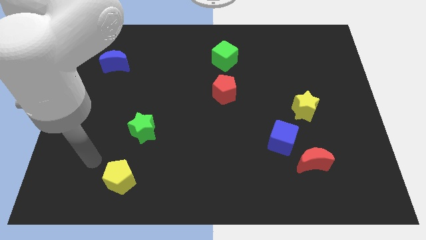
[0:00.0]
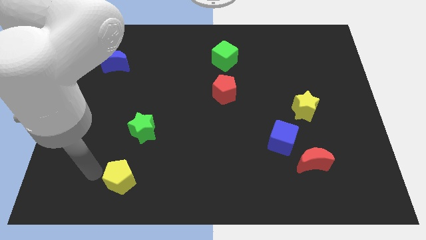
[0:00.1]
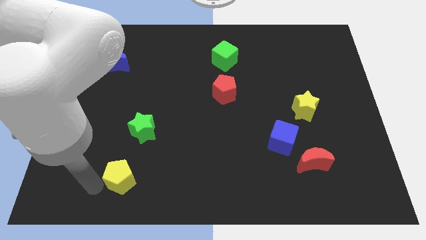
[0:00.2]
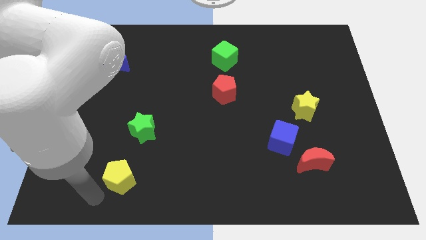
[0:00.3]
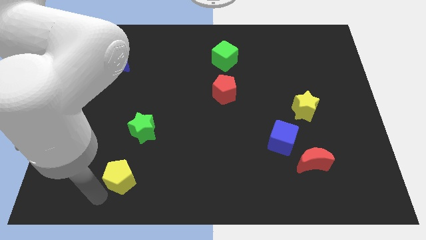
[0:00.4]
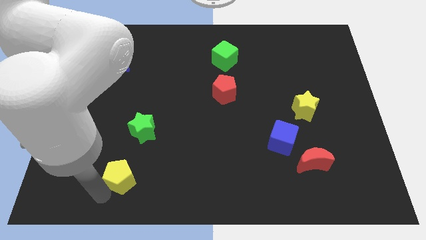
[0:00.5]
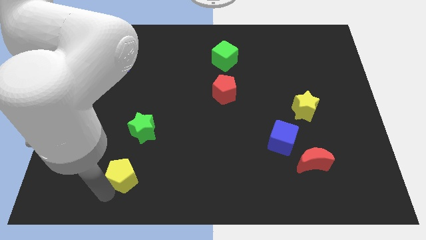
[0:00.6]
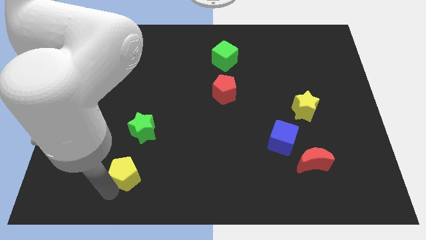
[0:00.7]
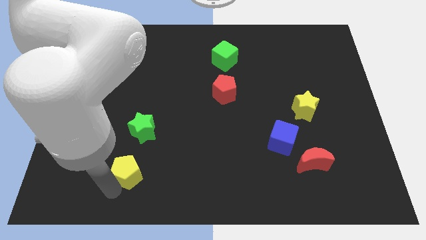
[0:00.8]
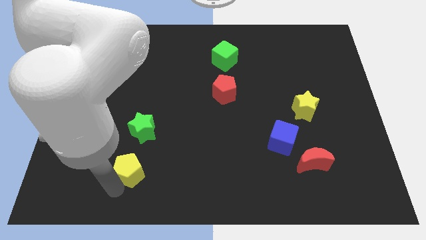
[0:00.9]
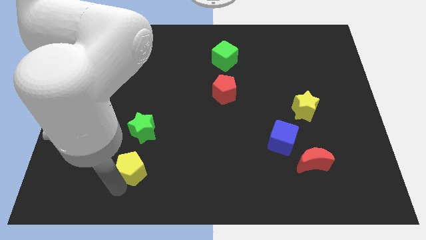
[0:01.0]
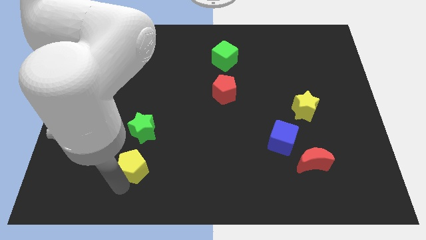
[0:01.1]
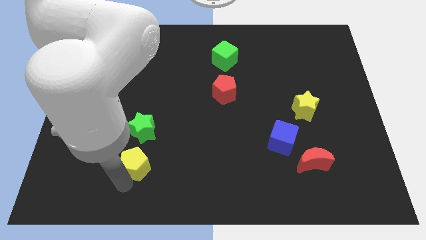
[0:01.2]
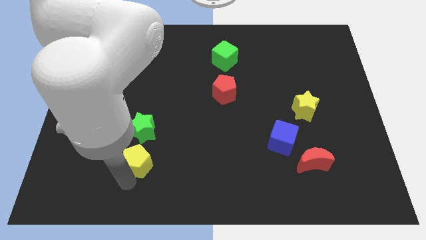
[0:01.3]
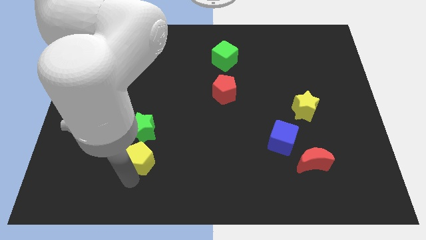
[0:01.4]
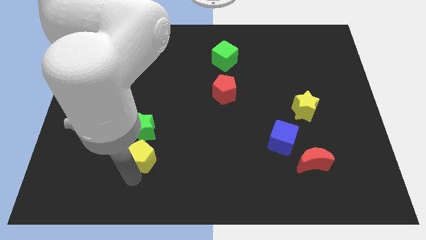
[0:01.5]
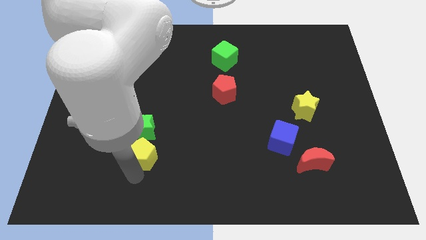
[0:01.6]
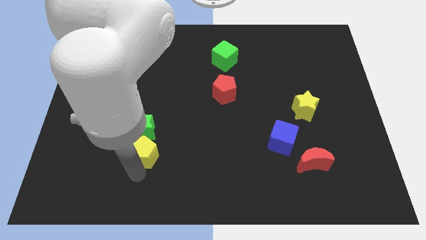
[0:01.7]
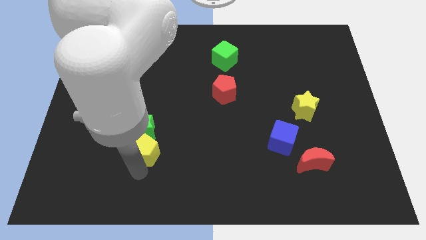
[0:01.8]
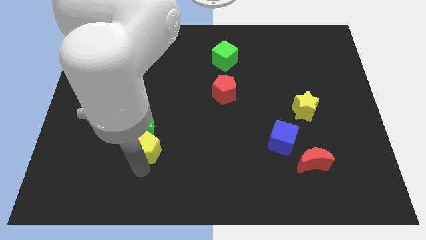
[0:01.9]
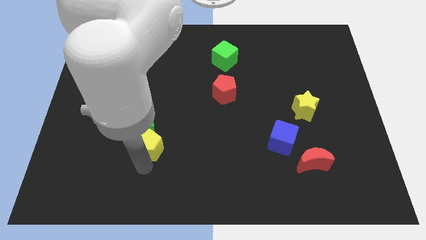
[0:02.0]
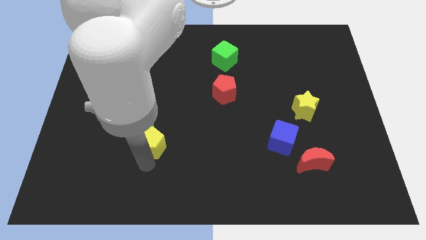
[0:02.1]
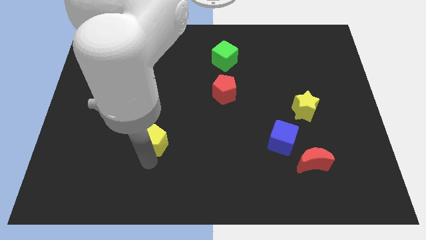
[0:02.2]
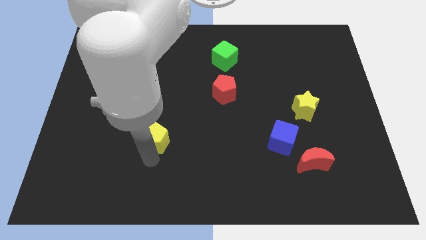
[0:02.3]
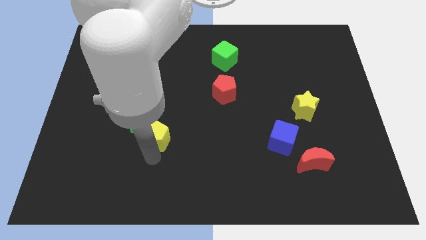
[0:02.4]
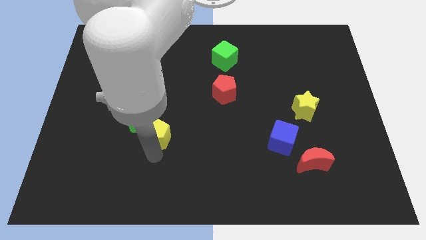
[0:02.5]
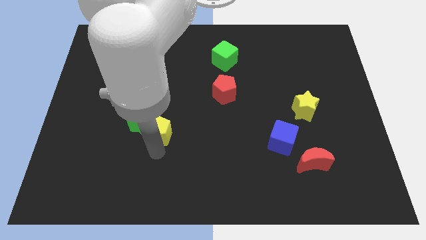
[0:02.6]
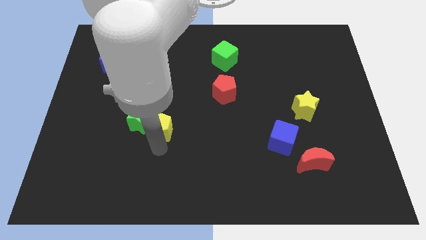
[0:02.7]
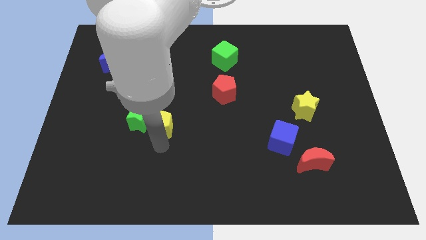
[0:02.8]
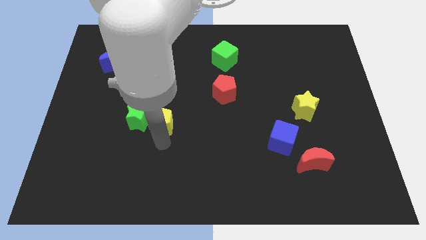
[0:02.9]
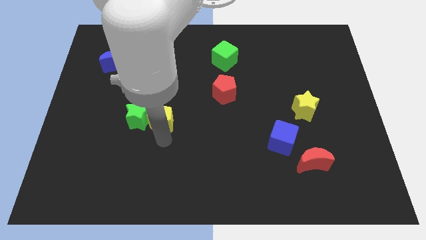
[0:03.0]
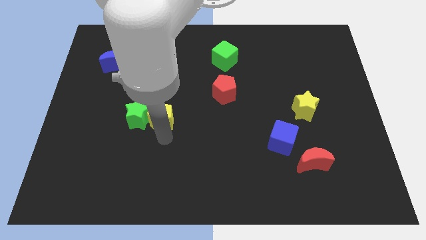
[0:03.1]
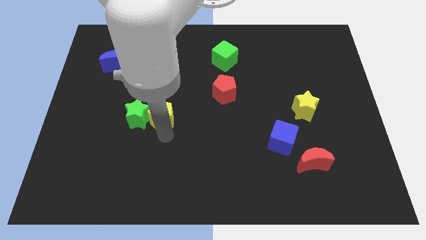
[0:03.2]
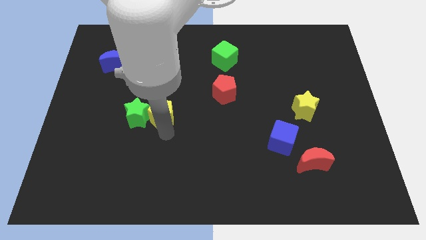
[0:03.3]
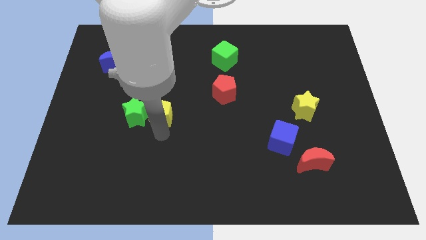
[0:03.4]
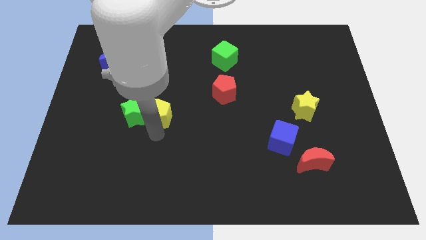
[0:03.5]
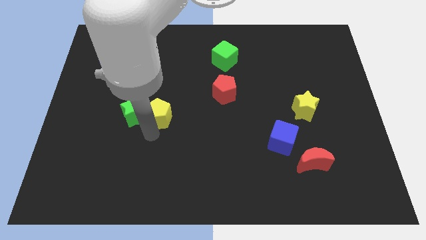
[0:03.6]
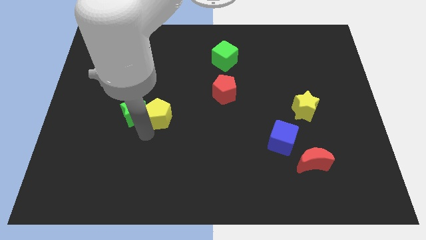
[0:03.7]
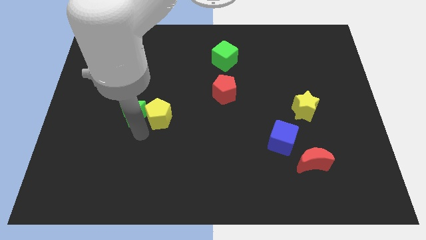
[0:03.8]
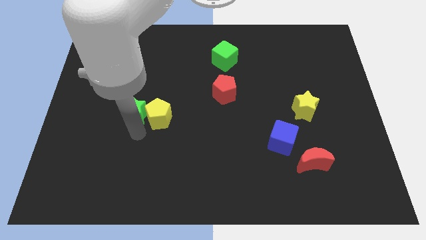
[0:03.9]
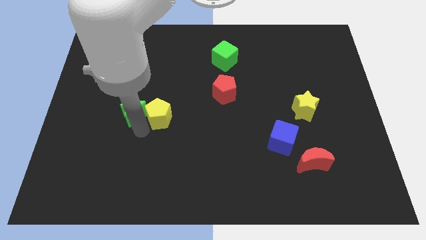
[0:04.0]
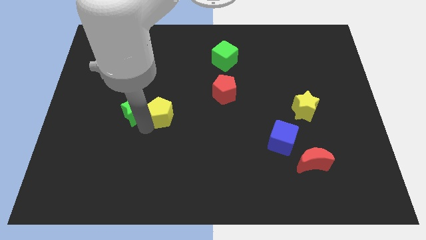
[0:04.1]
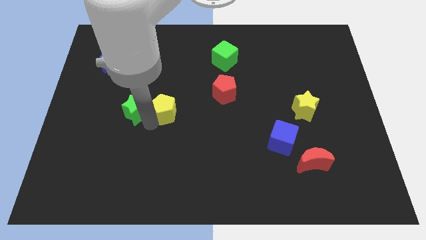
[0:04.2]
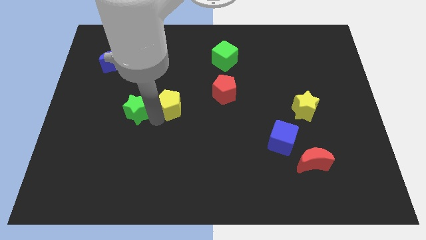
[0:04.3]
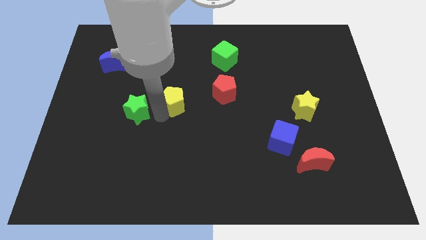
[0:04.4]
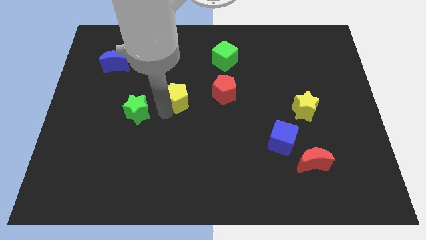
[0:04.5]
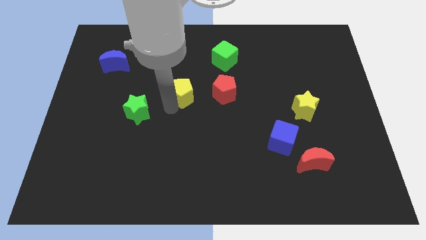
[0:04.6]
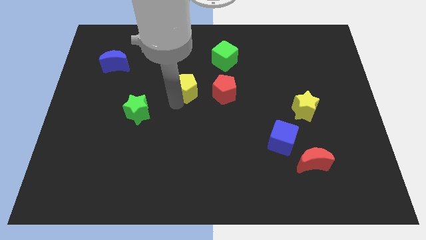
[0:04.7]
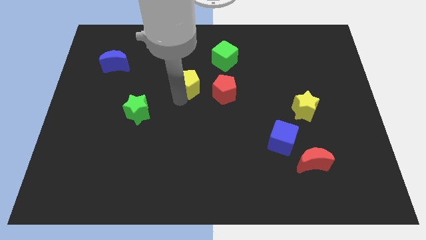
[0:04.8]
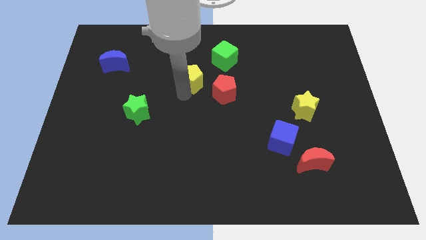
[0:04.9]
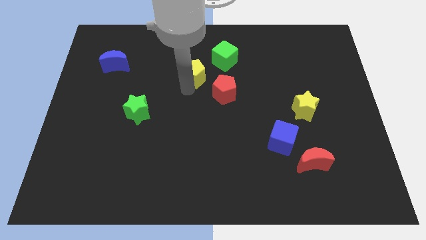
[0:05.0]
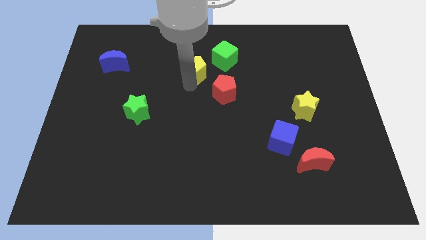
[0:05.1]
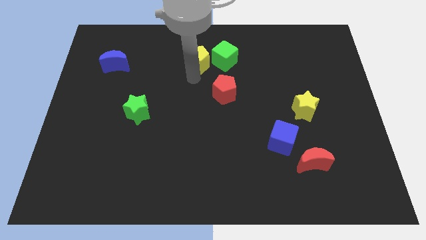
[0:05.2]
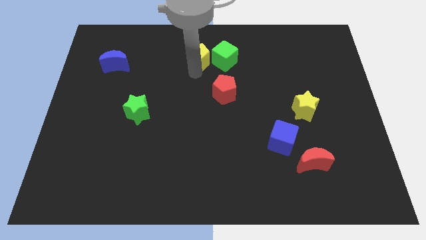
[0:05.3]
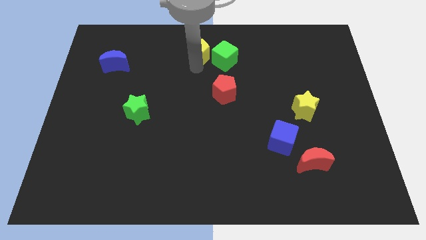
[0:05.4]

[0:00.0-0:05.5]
move the yellow pentagon to the top side

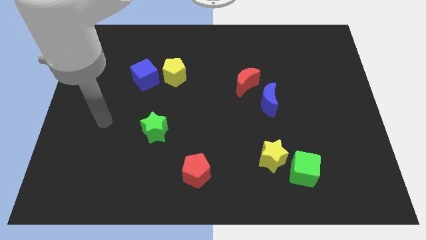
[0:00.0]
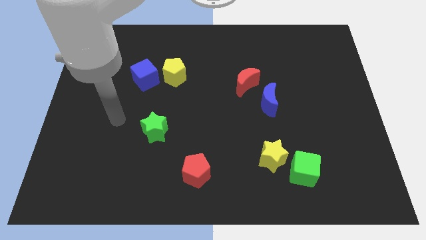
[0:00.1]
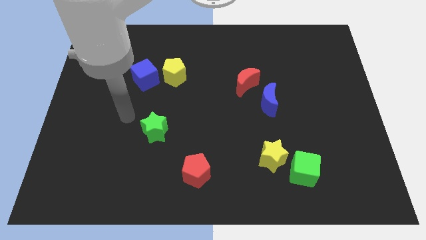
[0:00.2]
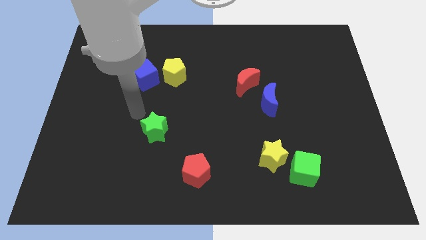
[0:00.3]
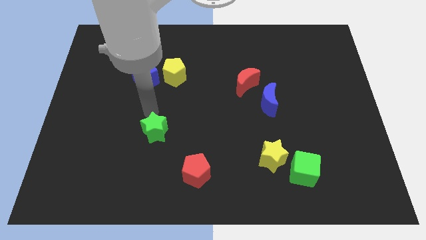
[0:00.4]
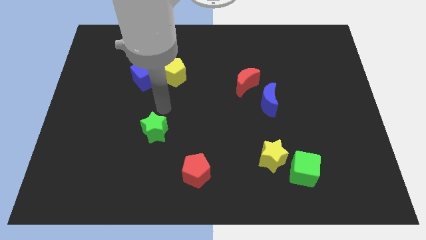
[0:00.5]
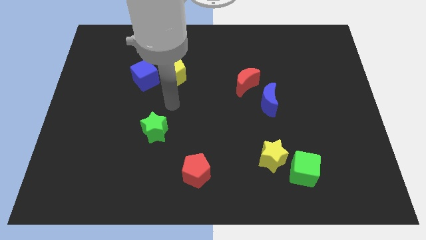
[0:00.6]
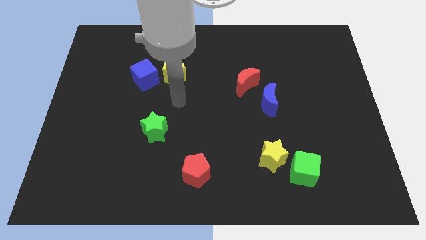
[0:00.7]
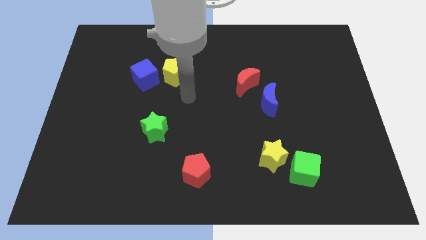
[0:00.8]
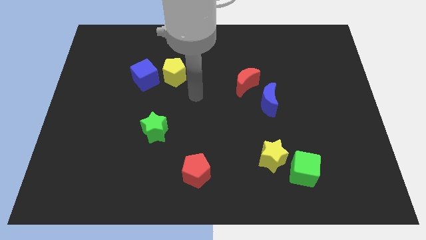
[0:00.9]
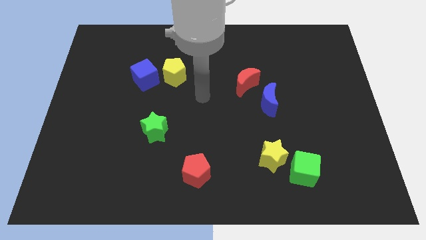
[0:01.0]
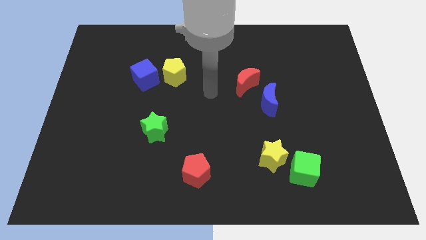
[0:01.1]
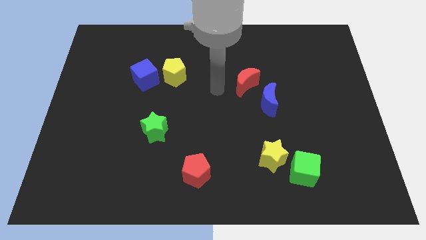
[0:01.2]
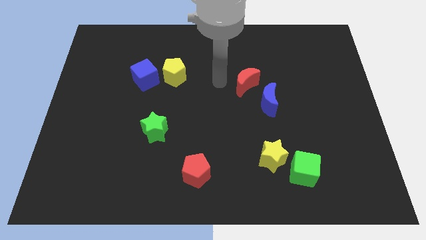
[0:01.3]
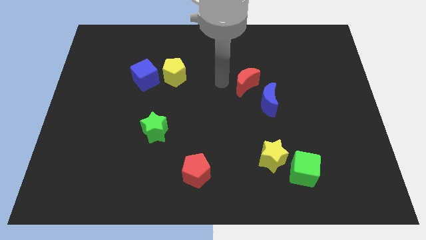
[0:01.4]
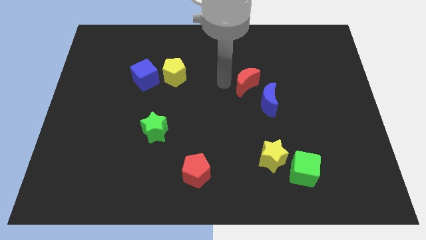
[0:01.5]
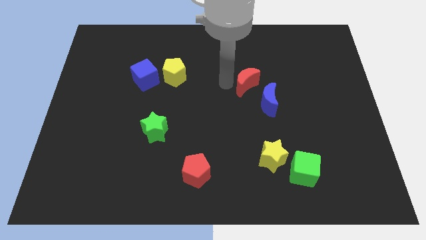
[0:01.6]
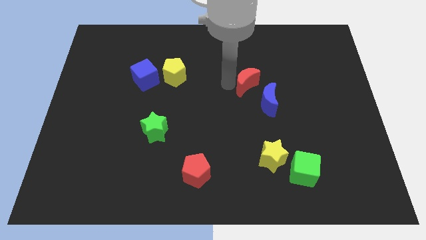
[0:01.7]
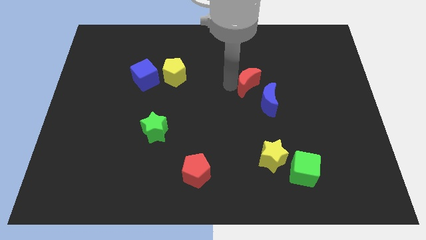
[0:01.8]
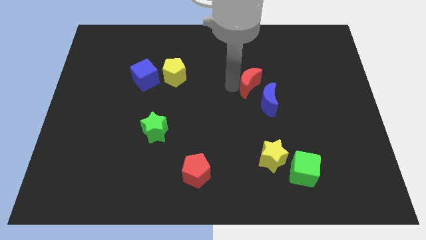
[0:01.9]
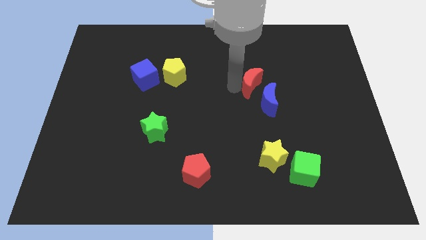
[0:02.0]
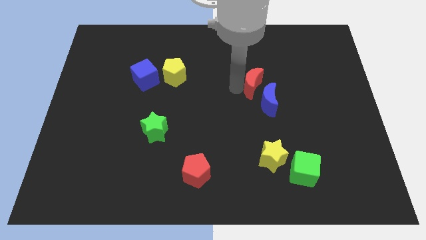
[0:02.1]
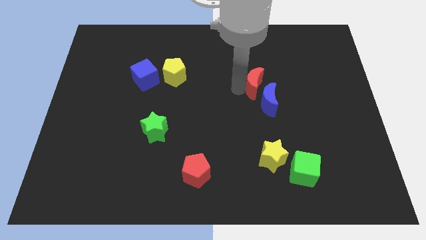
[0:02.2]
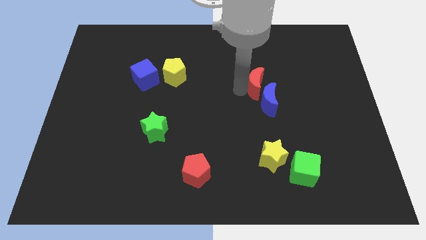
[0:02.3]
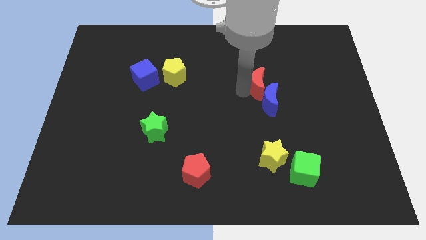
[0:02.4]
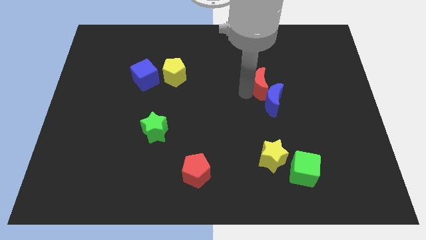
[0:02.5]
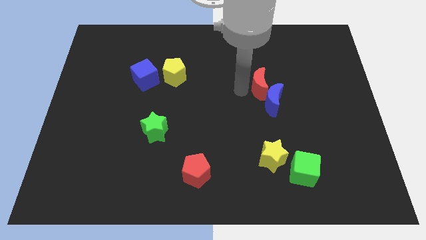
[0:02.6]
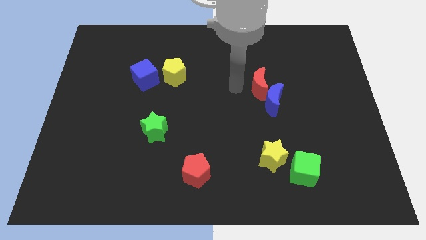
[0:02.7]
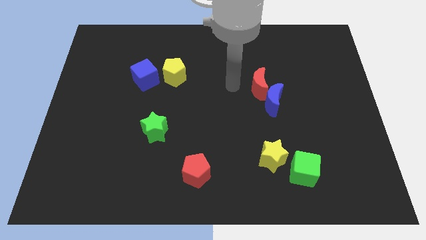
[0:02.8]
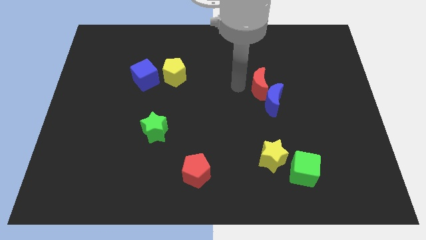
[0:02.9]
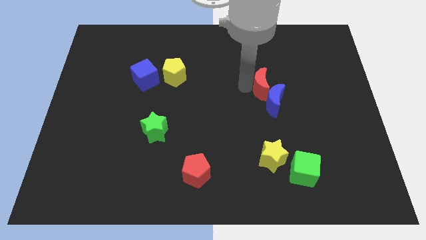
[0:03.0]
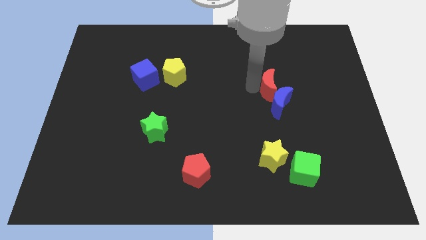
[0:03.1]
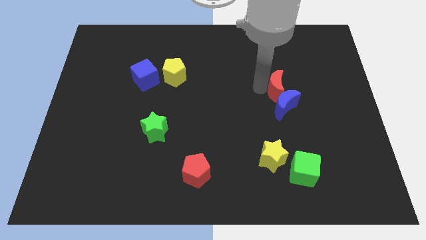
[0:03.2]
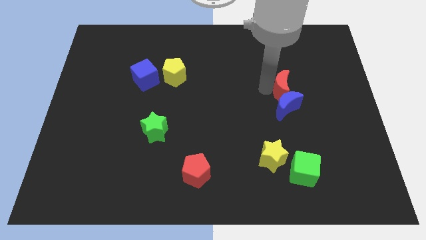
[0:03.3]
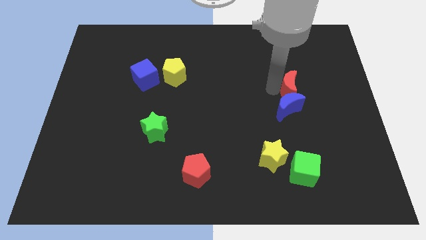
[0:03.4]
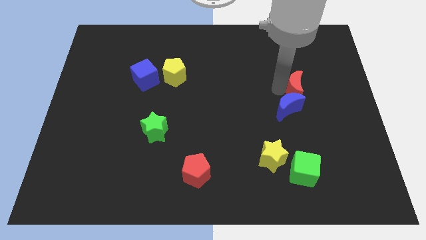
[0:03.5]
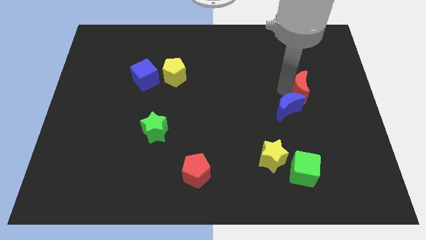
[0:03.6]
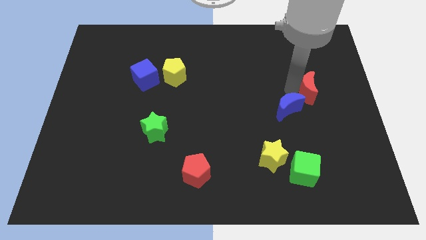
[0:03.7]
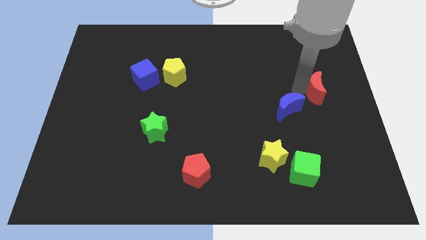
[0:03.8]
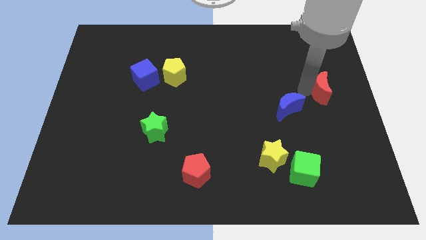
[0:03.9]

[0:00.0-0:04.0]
put the red moon to the right side
